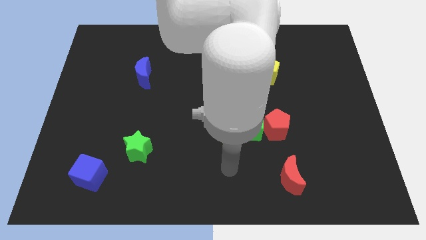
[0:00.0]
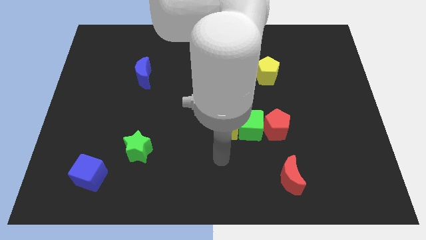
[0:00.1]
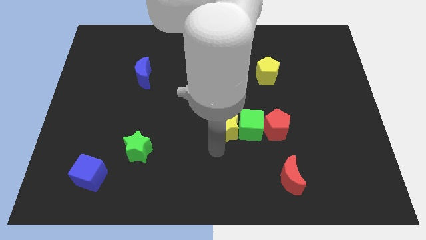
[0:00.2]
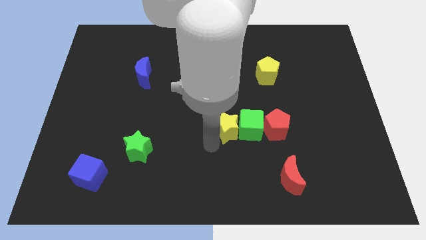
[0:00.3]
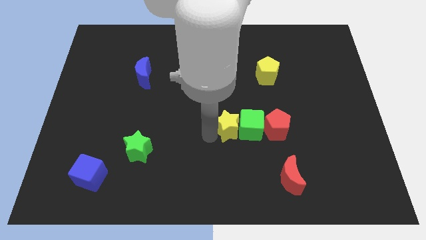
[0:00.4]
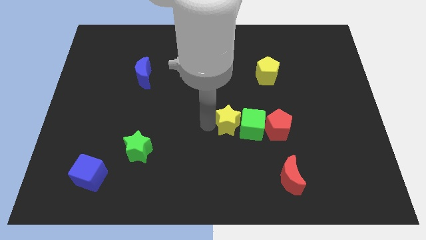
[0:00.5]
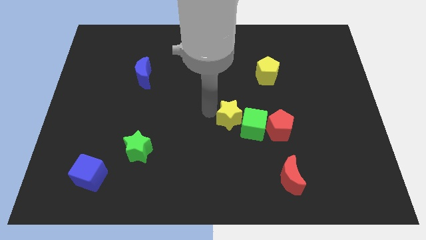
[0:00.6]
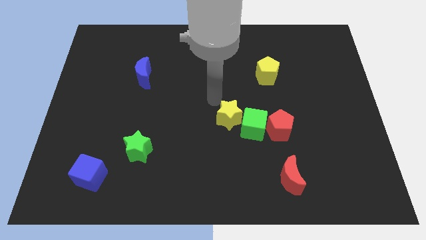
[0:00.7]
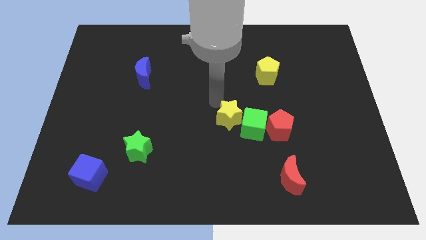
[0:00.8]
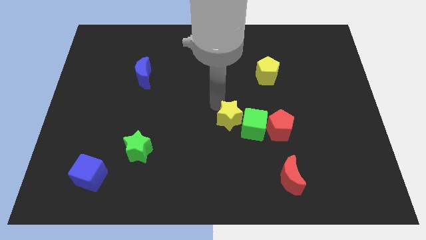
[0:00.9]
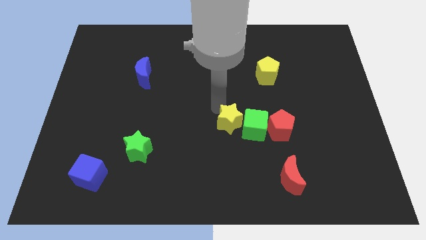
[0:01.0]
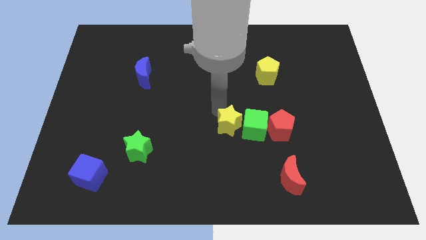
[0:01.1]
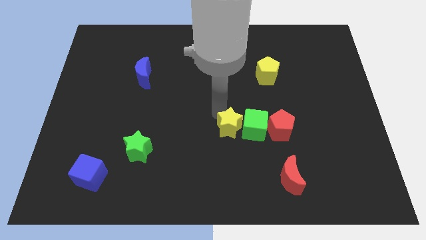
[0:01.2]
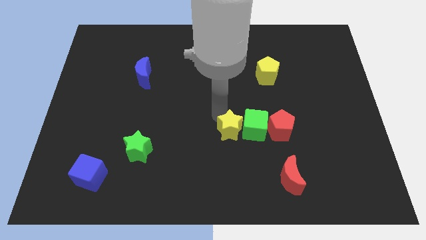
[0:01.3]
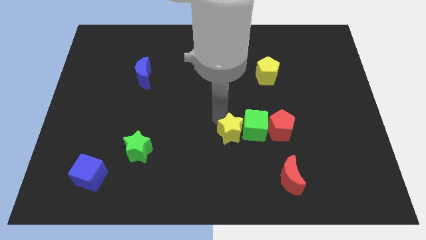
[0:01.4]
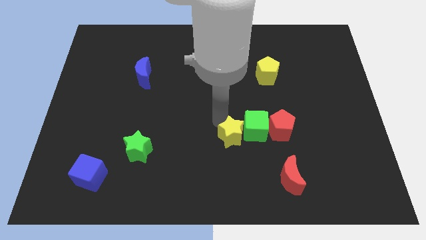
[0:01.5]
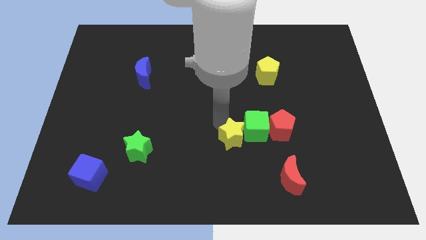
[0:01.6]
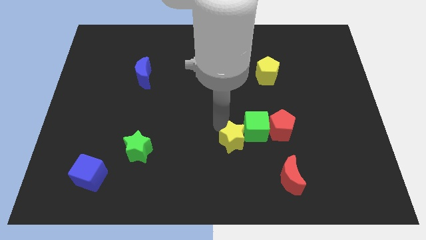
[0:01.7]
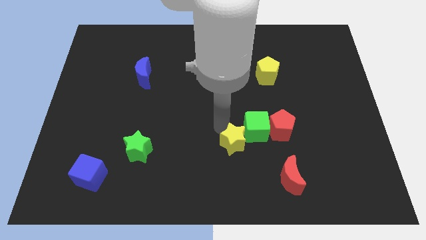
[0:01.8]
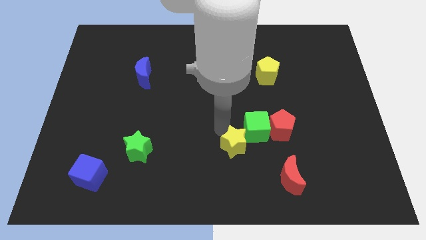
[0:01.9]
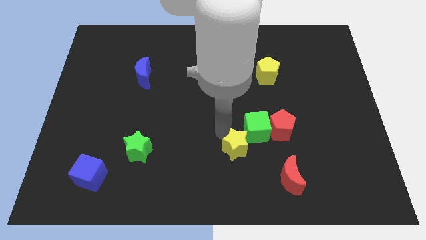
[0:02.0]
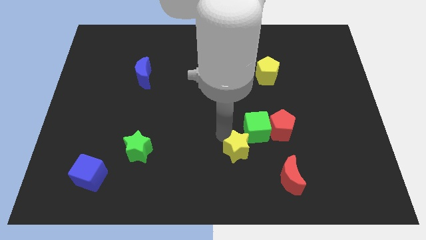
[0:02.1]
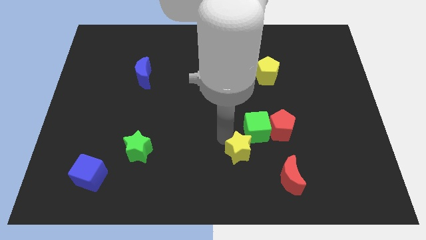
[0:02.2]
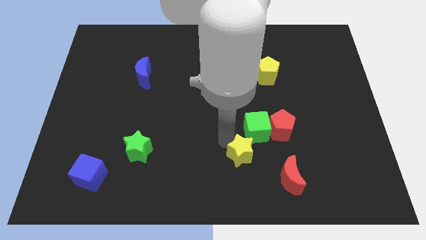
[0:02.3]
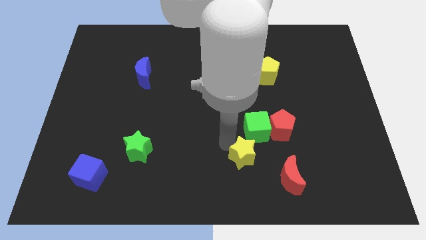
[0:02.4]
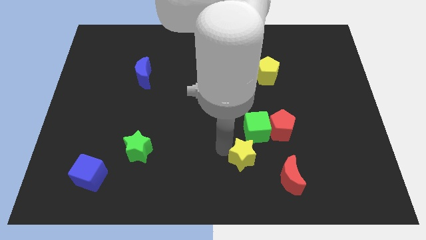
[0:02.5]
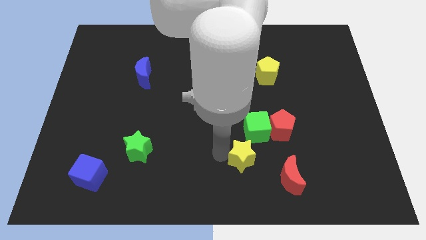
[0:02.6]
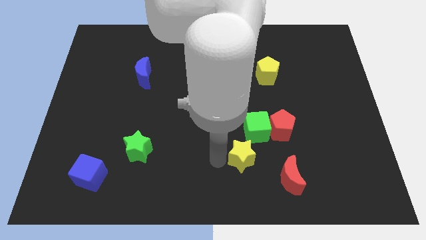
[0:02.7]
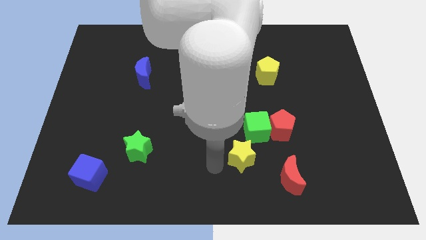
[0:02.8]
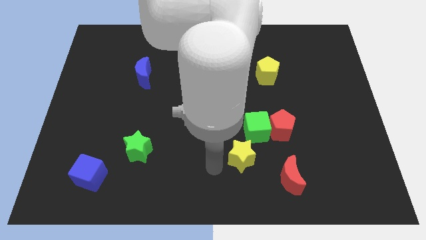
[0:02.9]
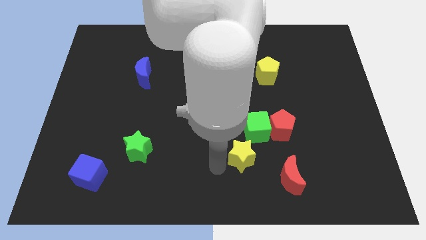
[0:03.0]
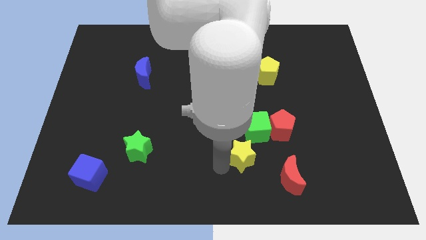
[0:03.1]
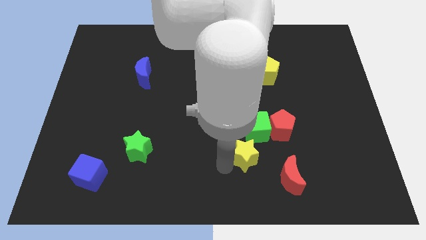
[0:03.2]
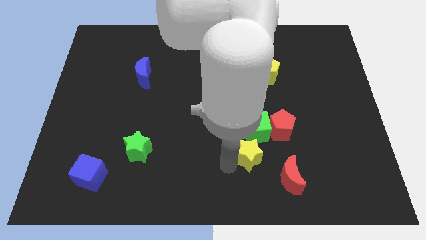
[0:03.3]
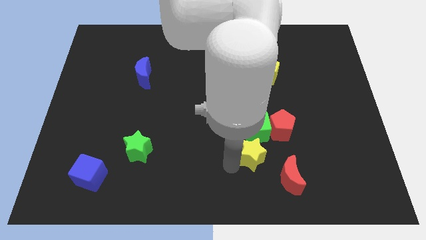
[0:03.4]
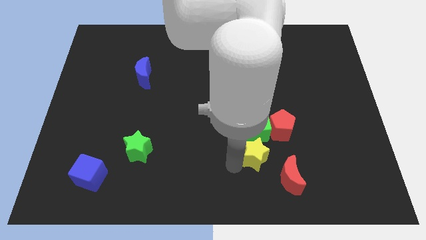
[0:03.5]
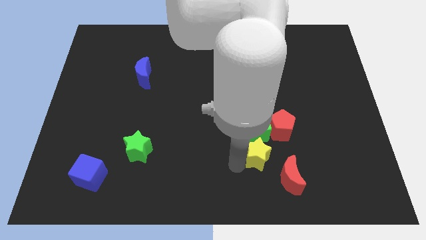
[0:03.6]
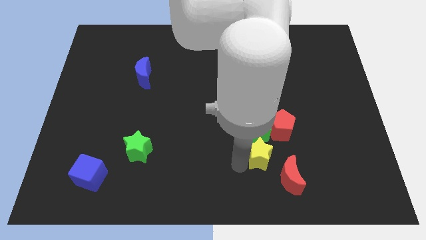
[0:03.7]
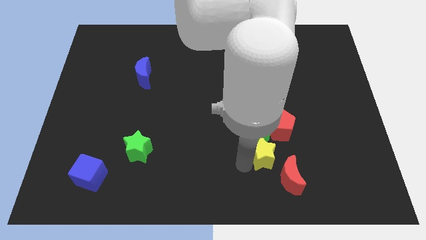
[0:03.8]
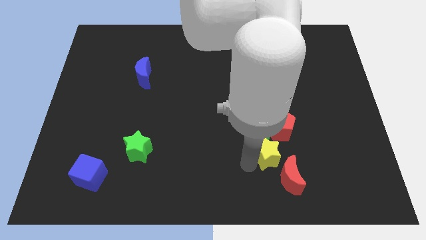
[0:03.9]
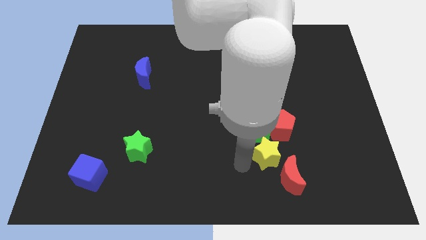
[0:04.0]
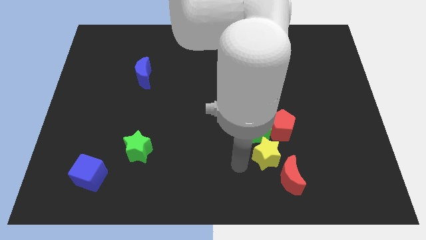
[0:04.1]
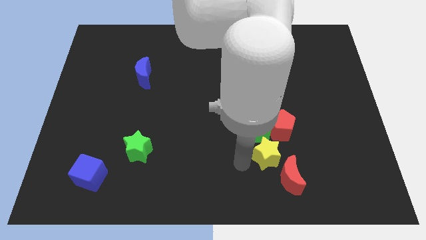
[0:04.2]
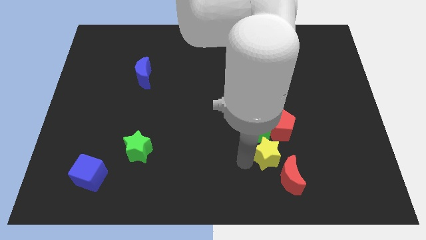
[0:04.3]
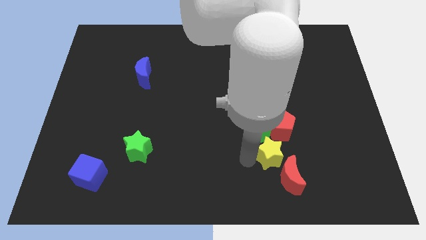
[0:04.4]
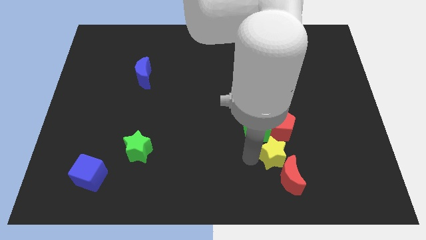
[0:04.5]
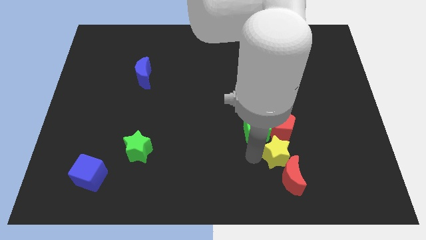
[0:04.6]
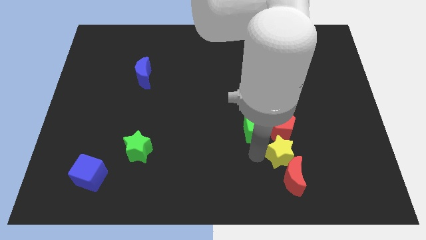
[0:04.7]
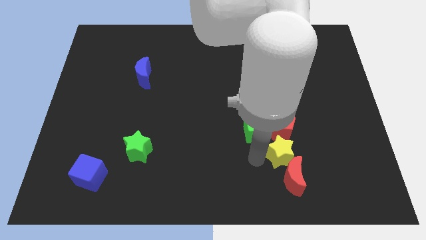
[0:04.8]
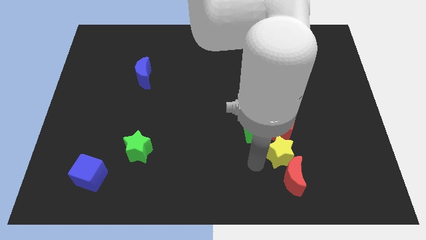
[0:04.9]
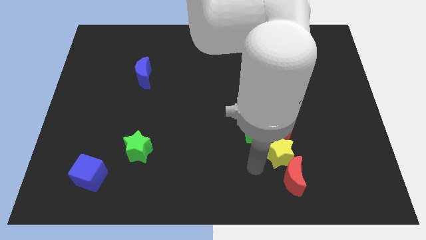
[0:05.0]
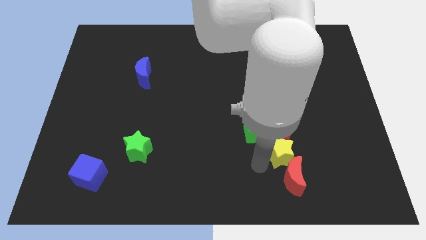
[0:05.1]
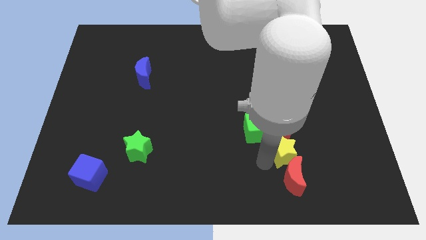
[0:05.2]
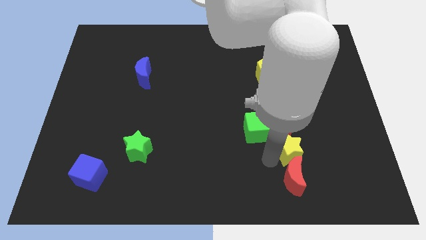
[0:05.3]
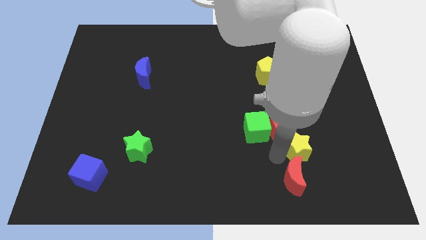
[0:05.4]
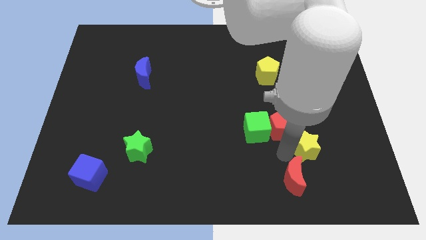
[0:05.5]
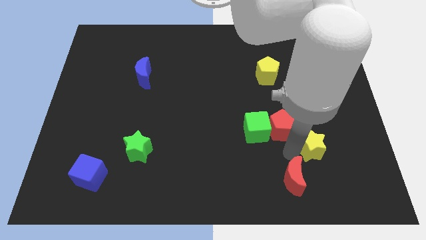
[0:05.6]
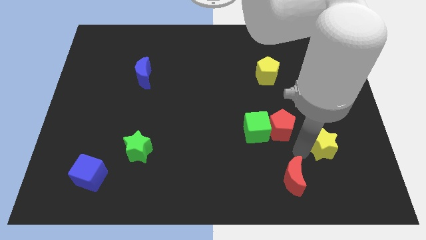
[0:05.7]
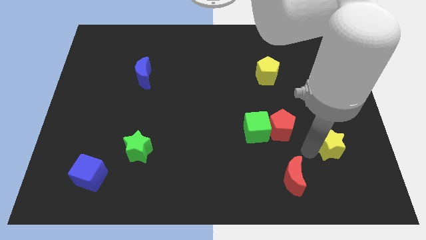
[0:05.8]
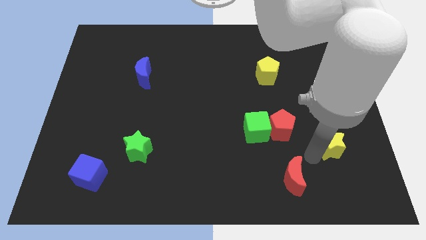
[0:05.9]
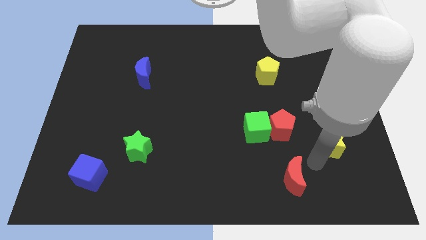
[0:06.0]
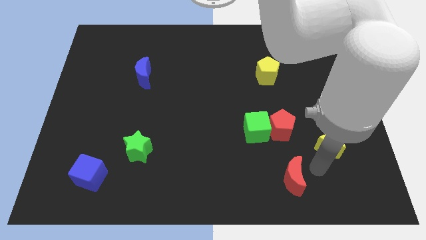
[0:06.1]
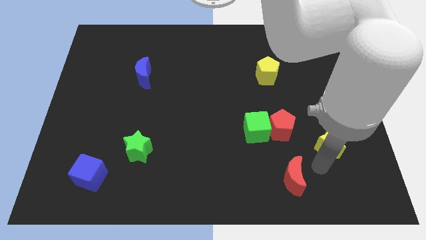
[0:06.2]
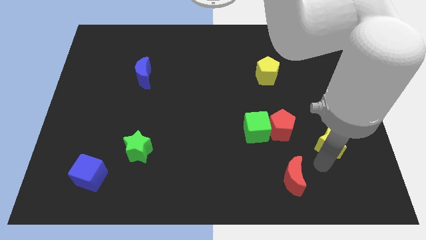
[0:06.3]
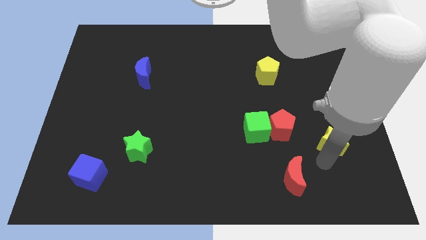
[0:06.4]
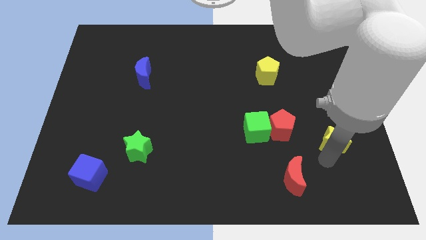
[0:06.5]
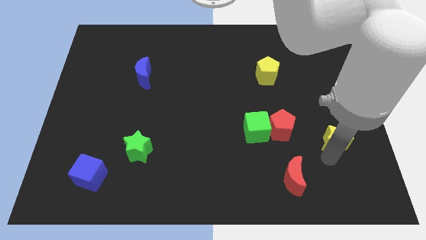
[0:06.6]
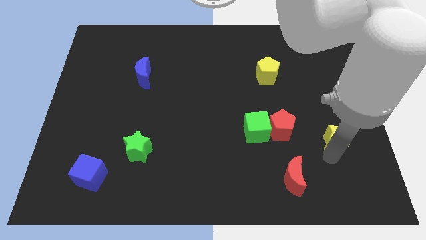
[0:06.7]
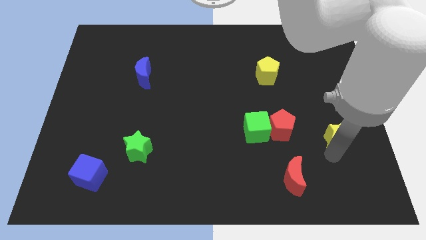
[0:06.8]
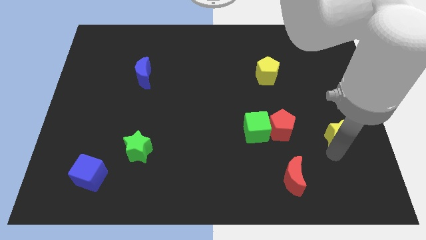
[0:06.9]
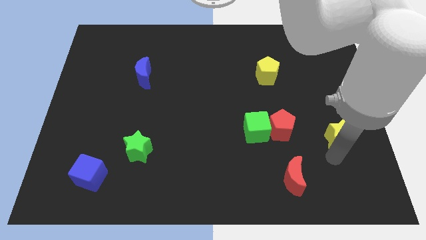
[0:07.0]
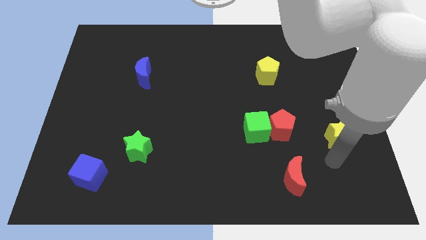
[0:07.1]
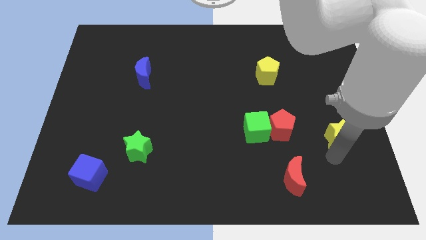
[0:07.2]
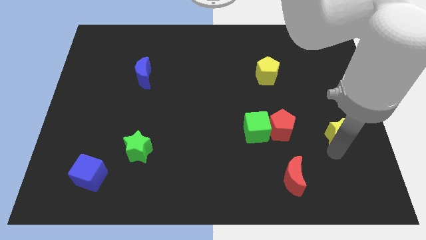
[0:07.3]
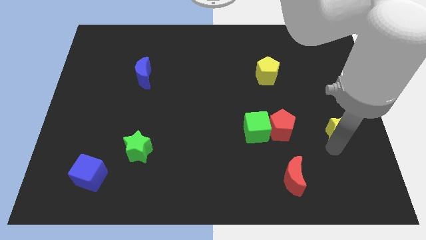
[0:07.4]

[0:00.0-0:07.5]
put the yellow star to the right side of the board

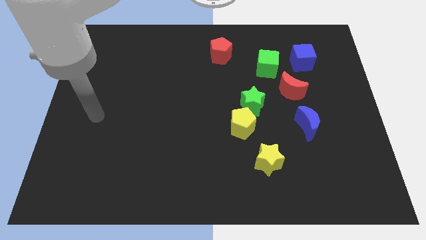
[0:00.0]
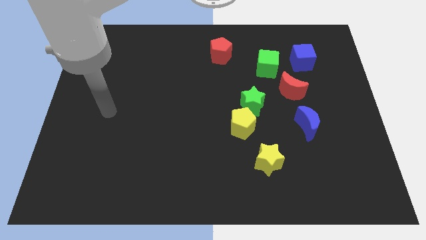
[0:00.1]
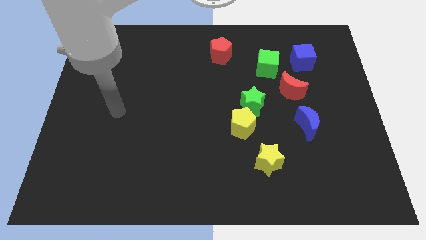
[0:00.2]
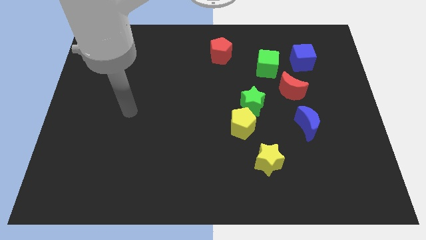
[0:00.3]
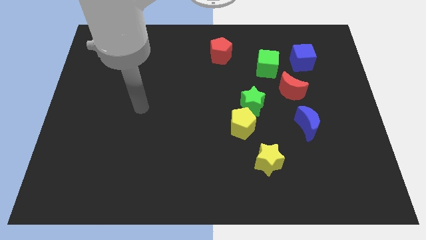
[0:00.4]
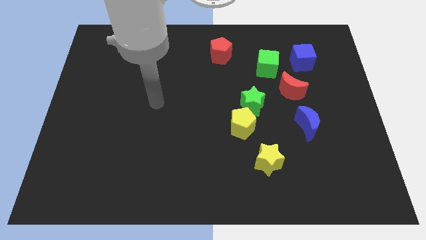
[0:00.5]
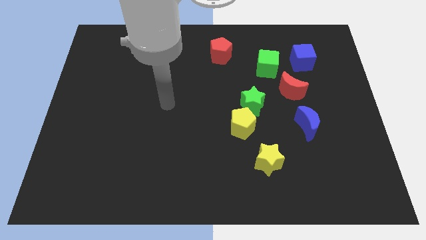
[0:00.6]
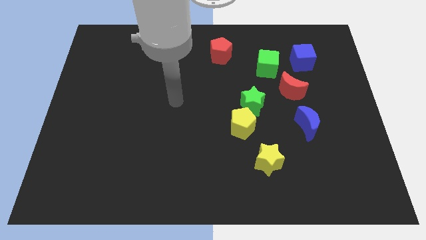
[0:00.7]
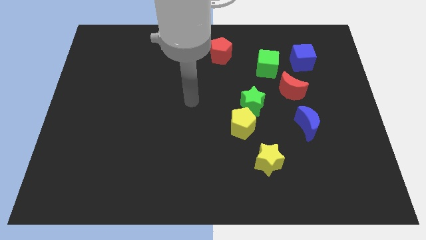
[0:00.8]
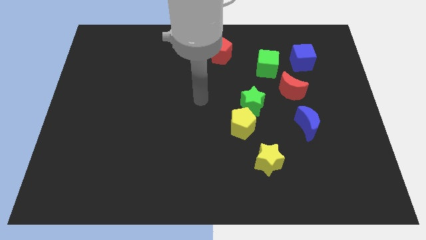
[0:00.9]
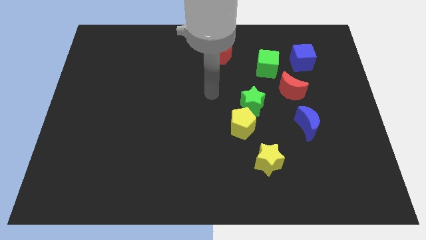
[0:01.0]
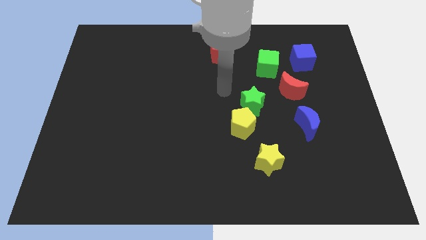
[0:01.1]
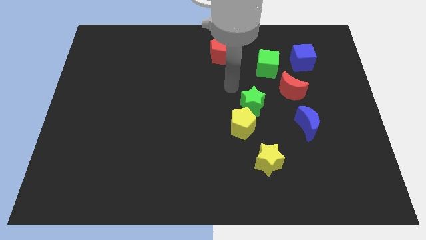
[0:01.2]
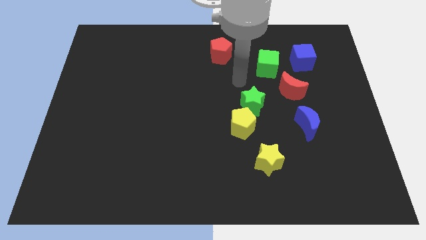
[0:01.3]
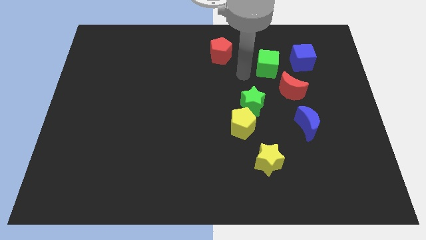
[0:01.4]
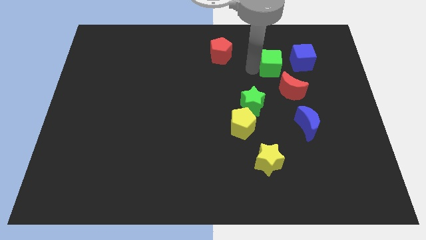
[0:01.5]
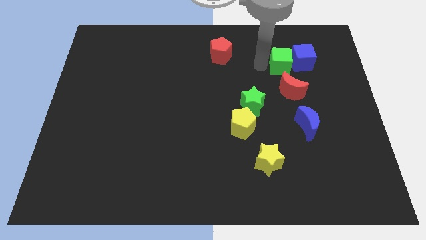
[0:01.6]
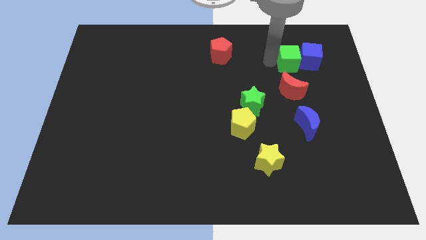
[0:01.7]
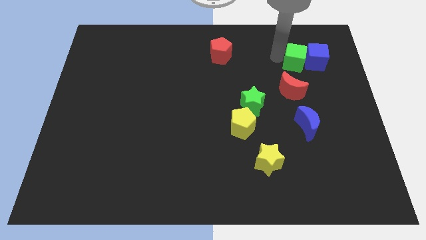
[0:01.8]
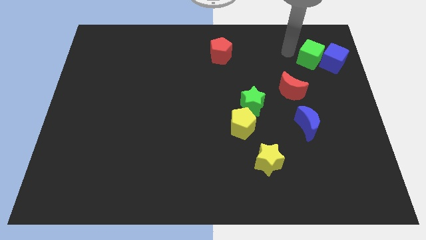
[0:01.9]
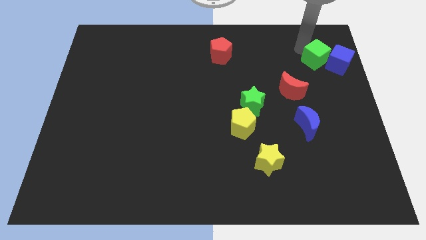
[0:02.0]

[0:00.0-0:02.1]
put the blue cube to the right side of the board
